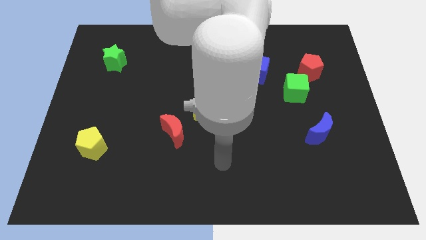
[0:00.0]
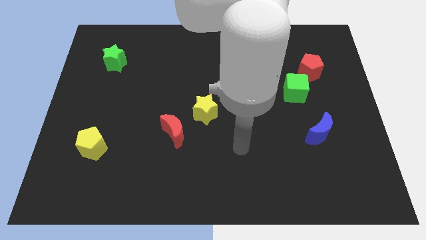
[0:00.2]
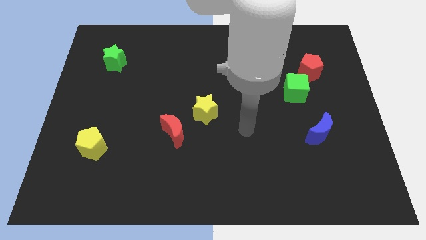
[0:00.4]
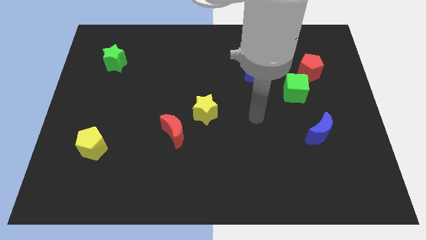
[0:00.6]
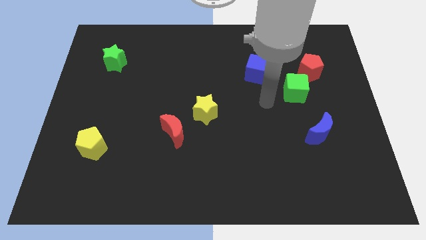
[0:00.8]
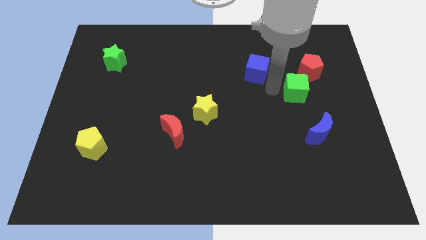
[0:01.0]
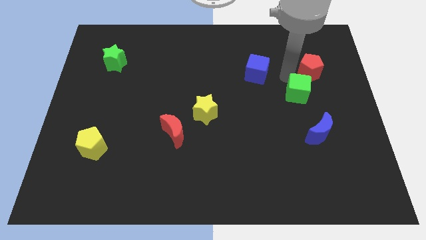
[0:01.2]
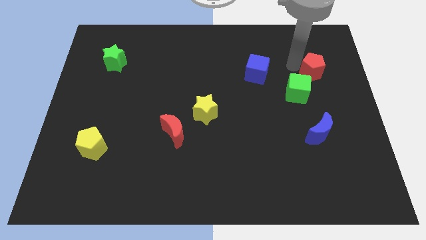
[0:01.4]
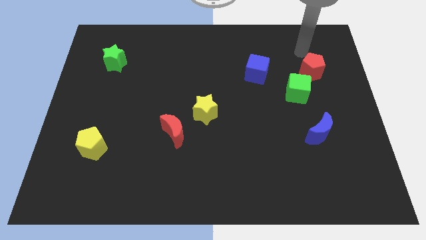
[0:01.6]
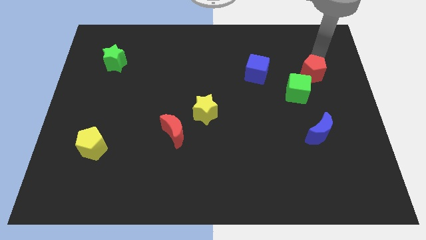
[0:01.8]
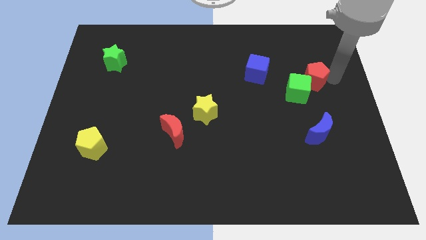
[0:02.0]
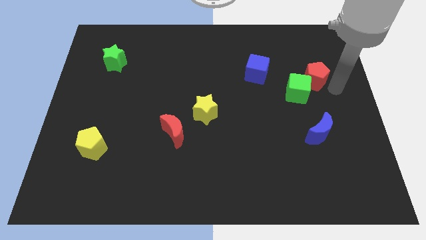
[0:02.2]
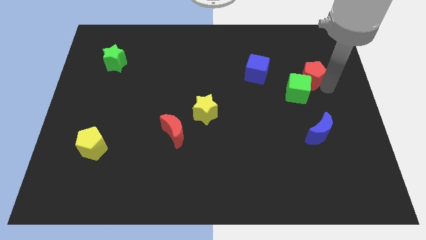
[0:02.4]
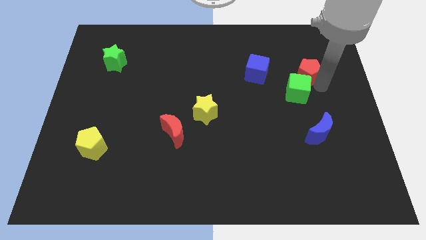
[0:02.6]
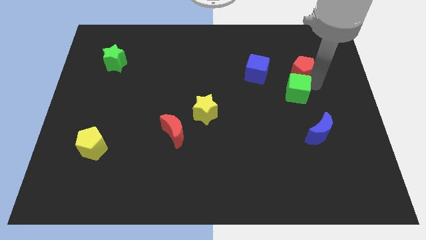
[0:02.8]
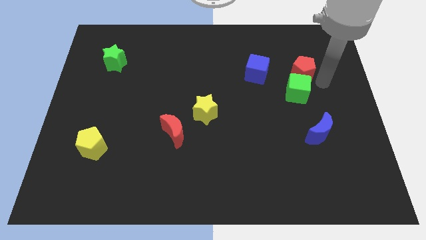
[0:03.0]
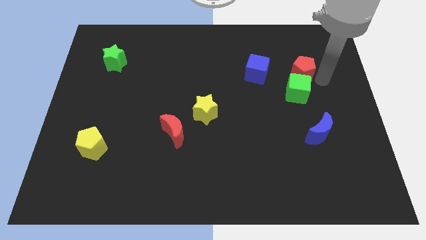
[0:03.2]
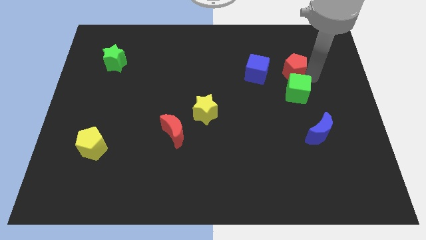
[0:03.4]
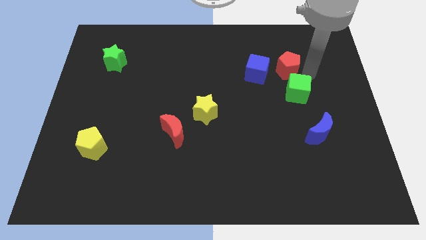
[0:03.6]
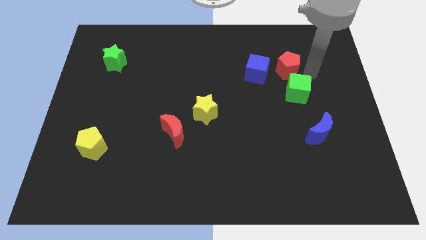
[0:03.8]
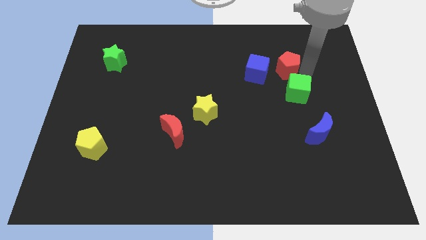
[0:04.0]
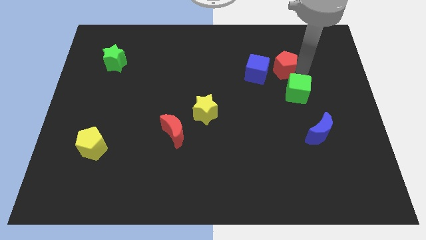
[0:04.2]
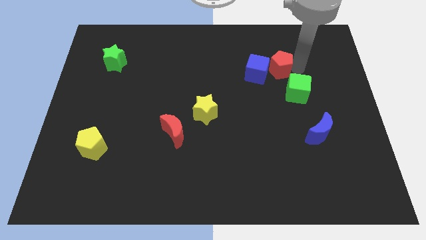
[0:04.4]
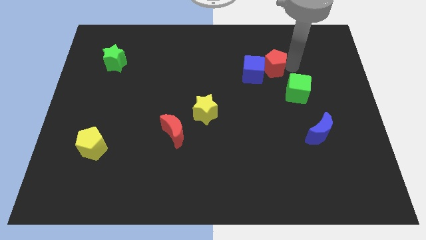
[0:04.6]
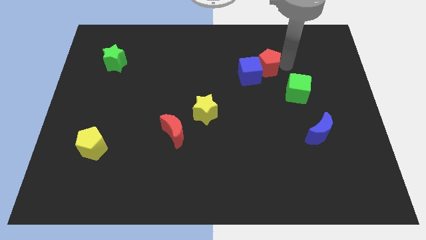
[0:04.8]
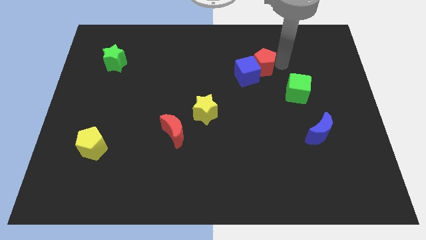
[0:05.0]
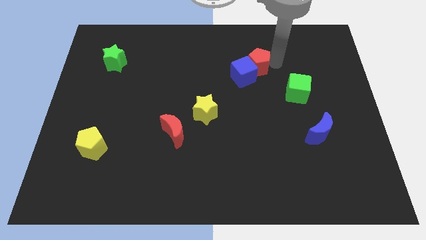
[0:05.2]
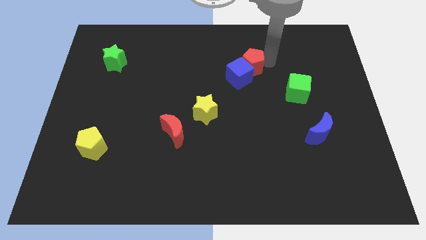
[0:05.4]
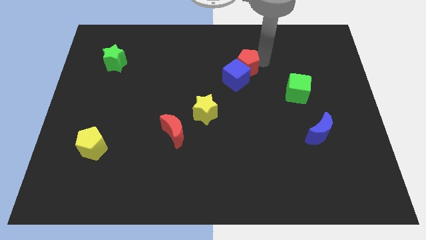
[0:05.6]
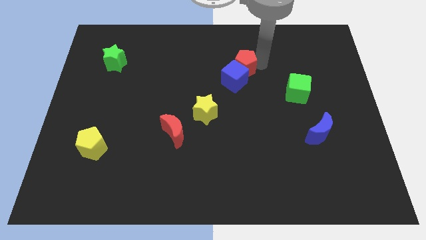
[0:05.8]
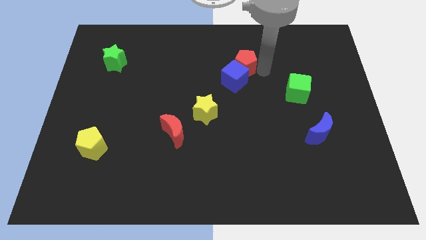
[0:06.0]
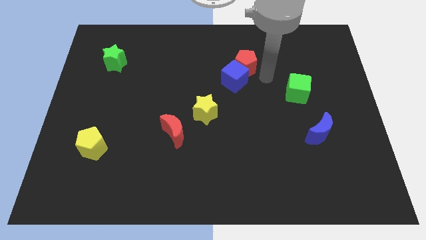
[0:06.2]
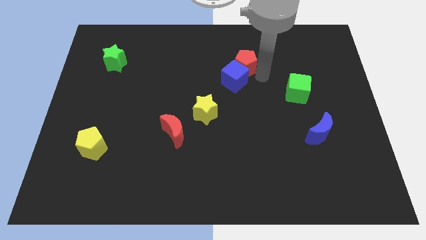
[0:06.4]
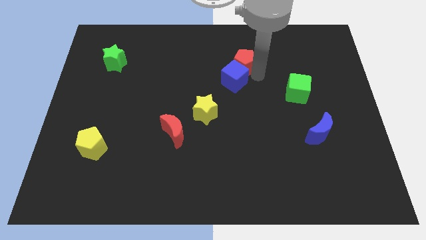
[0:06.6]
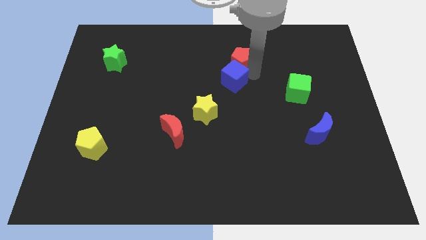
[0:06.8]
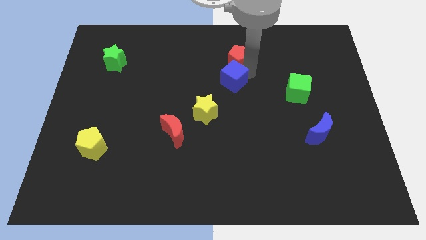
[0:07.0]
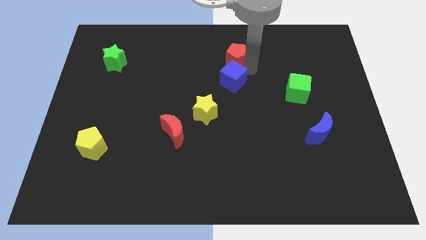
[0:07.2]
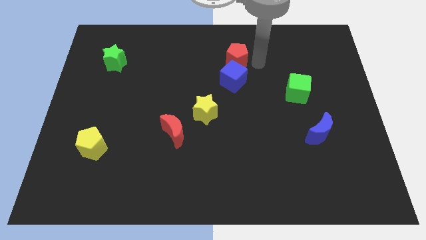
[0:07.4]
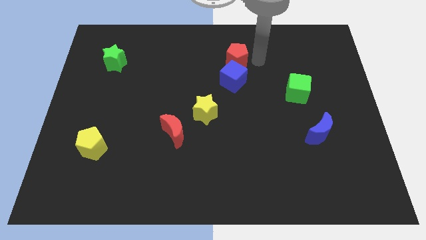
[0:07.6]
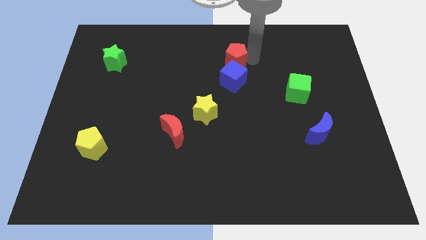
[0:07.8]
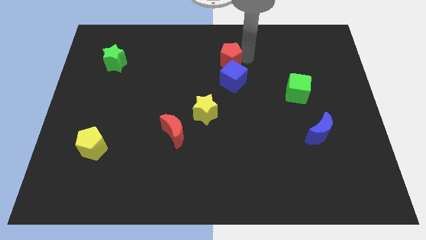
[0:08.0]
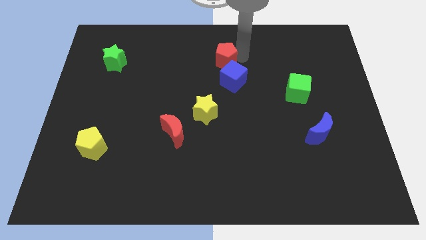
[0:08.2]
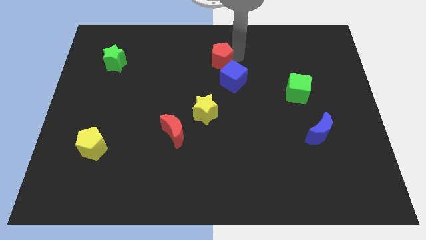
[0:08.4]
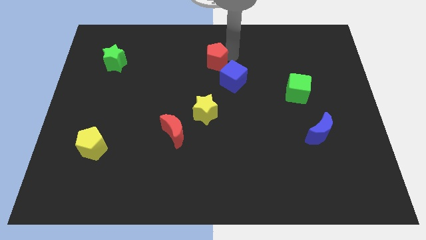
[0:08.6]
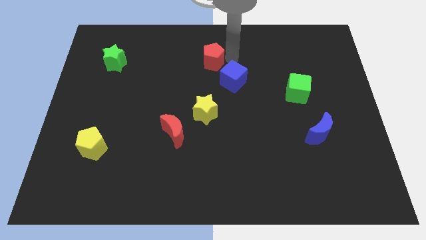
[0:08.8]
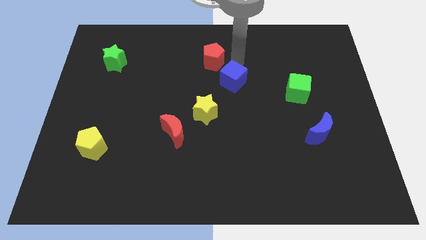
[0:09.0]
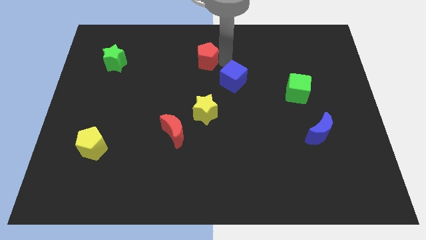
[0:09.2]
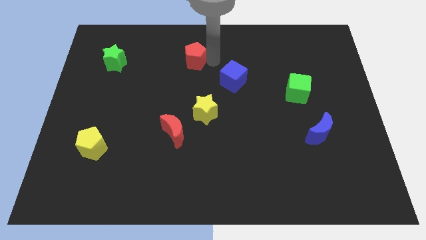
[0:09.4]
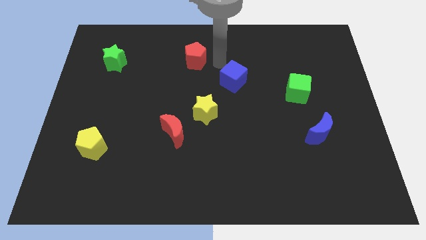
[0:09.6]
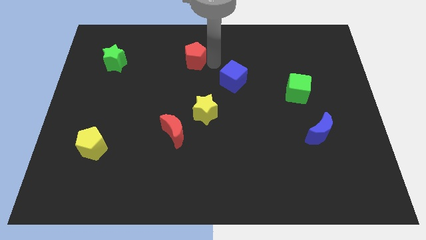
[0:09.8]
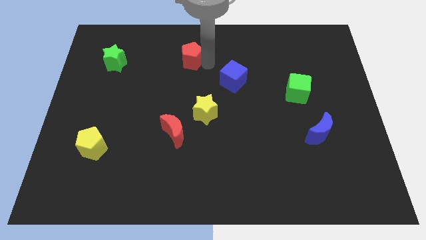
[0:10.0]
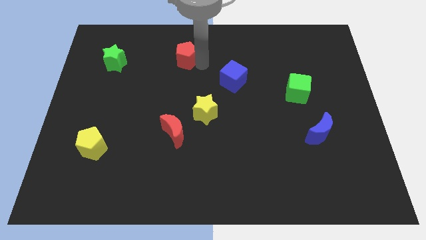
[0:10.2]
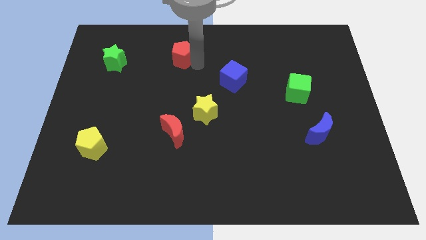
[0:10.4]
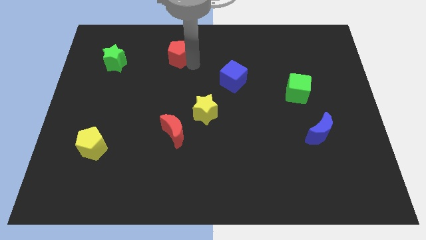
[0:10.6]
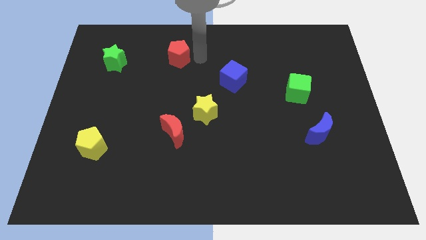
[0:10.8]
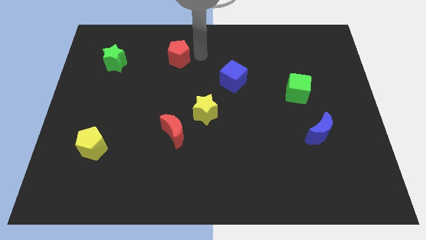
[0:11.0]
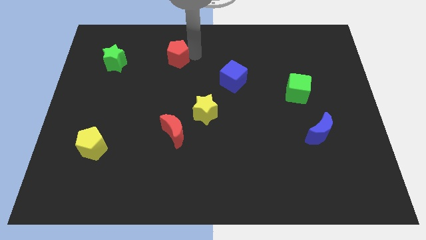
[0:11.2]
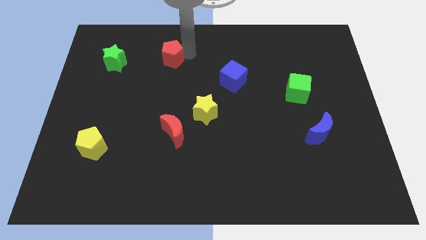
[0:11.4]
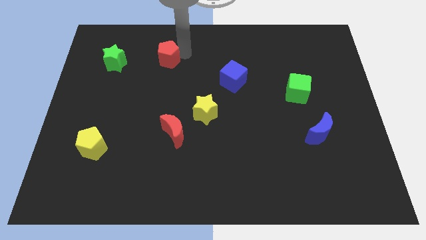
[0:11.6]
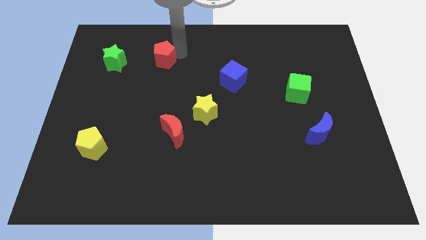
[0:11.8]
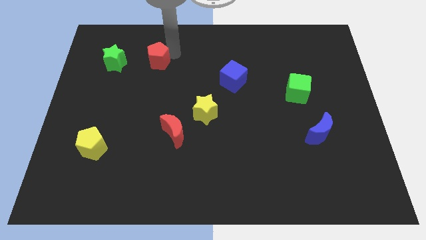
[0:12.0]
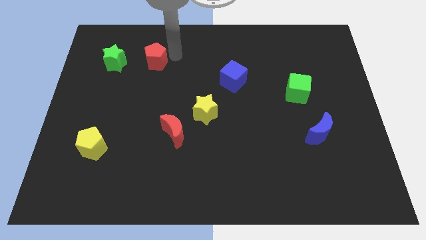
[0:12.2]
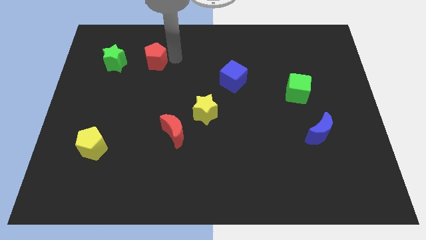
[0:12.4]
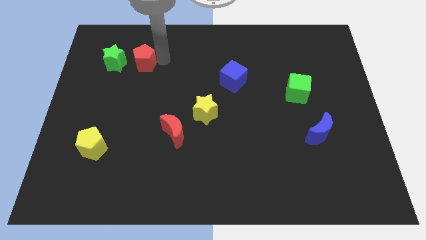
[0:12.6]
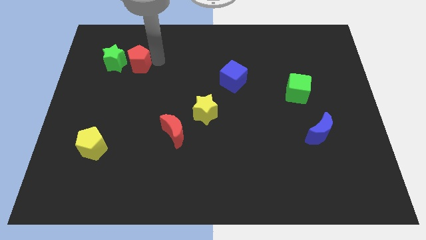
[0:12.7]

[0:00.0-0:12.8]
put the red pentagon close to the green star
